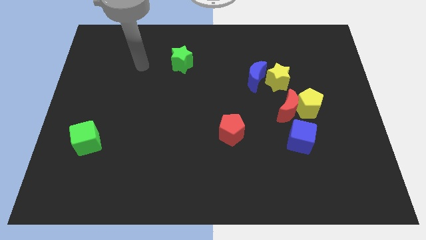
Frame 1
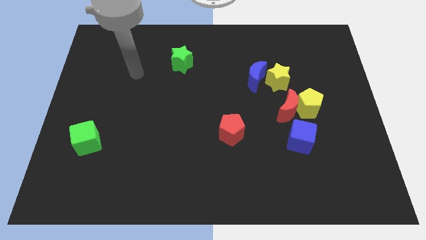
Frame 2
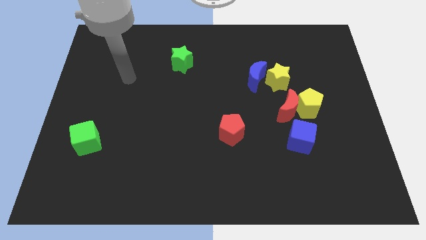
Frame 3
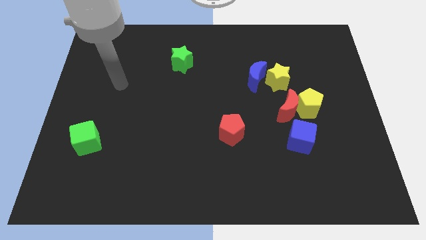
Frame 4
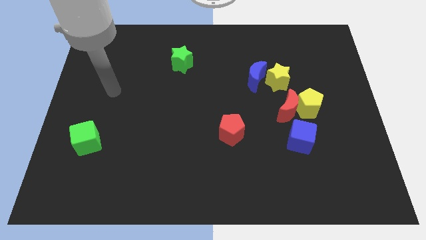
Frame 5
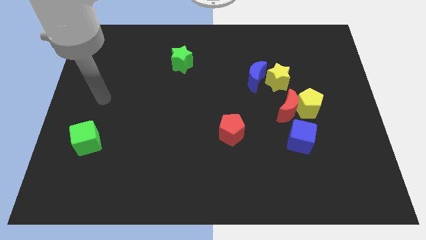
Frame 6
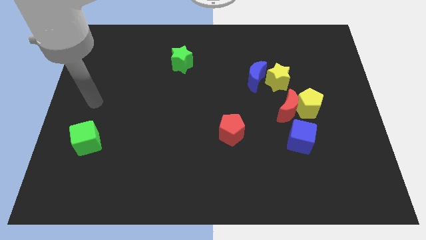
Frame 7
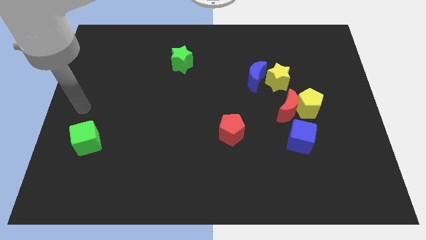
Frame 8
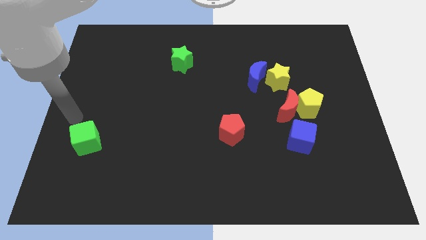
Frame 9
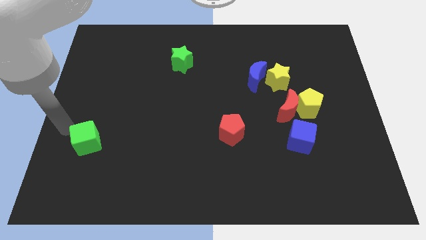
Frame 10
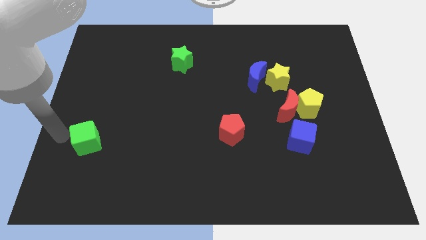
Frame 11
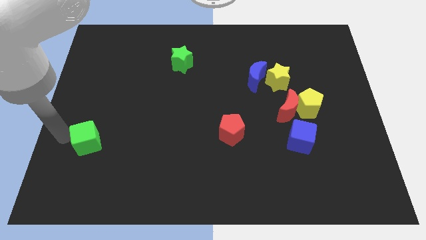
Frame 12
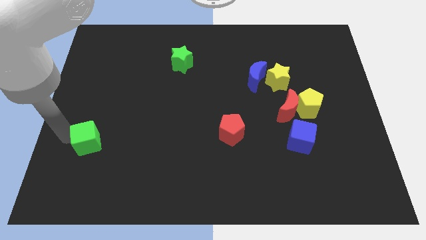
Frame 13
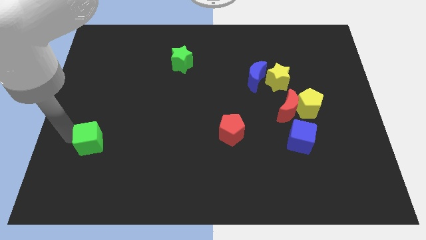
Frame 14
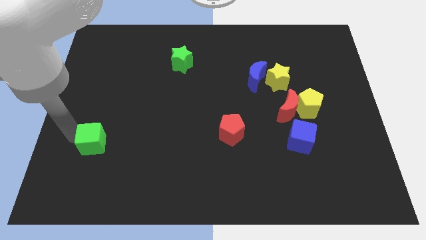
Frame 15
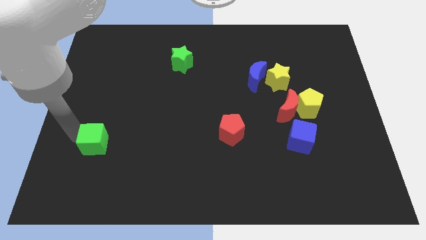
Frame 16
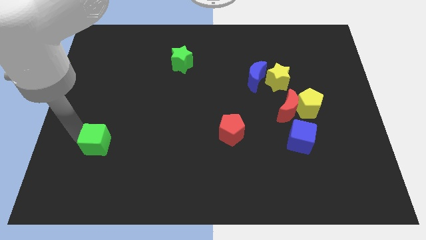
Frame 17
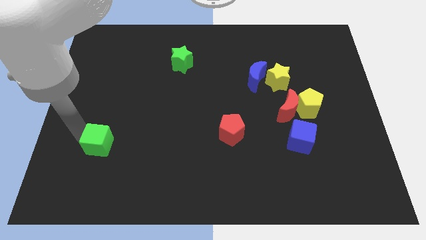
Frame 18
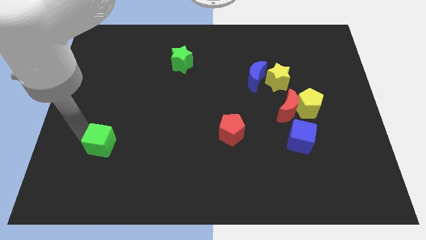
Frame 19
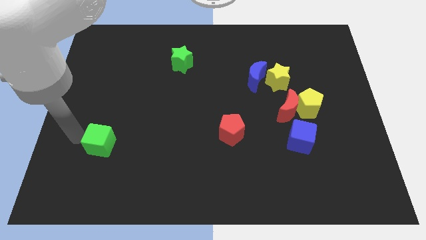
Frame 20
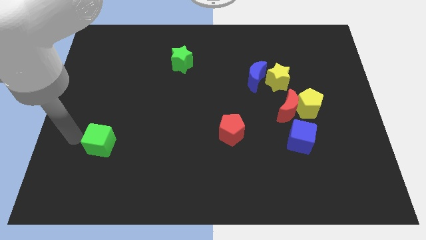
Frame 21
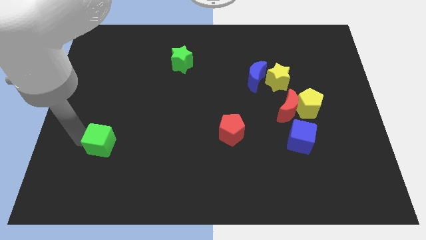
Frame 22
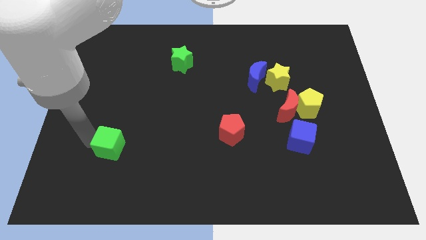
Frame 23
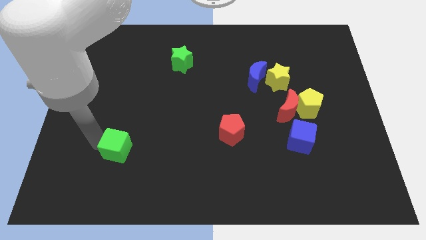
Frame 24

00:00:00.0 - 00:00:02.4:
slide the green cube to the right a little

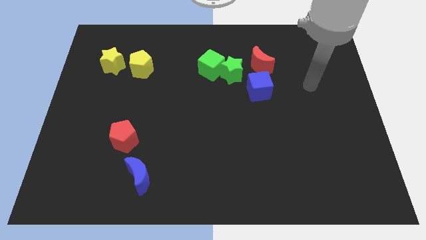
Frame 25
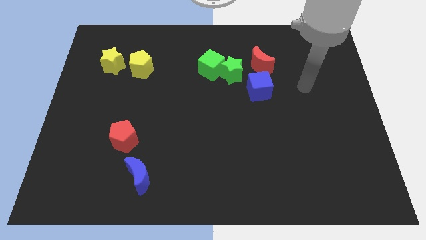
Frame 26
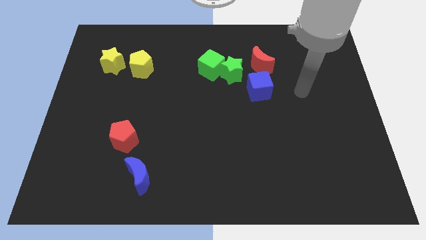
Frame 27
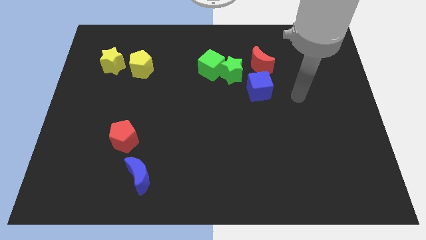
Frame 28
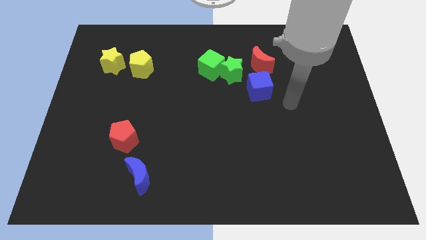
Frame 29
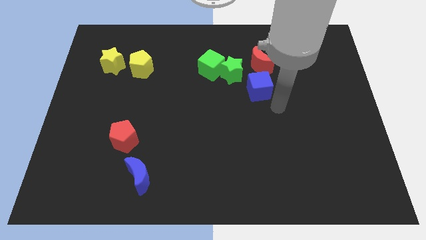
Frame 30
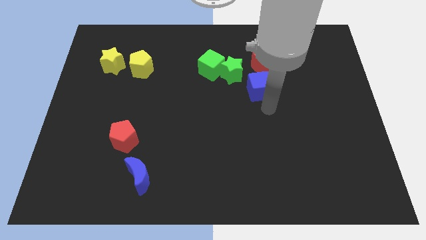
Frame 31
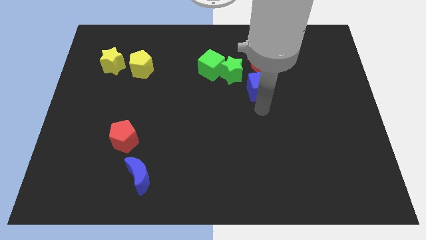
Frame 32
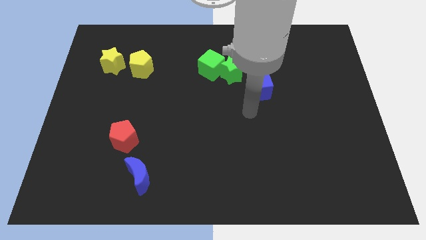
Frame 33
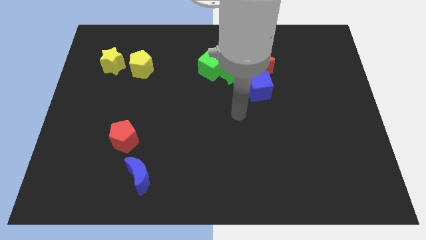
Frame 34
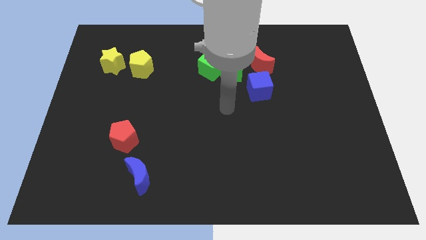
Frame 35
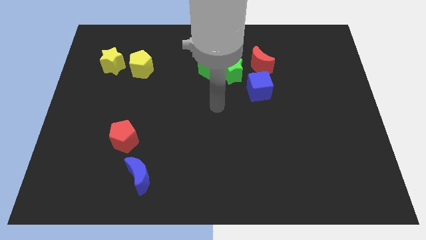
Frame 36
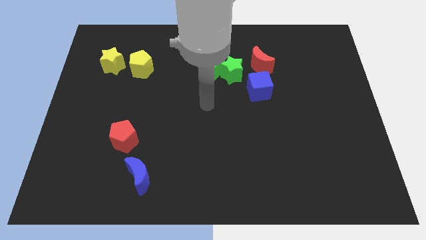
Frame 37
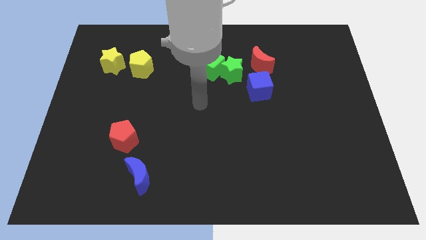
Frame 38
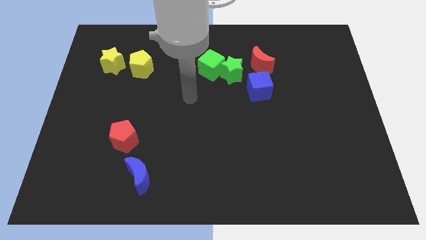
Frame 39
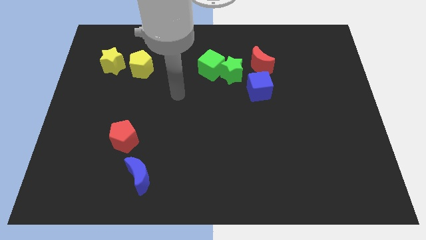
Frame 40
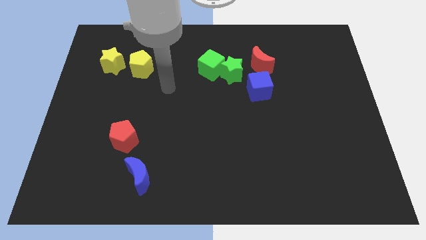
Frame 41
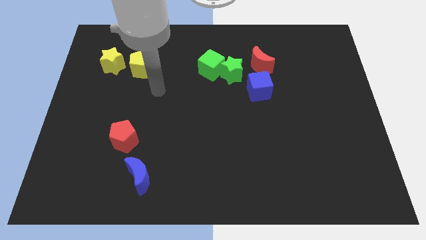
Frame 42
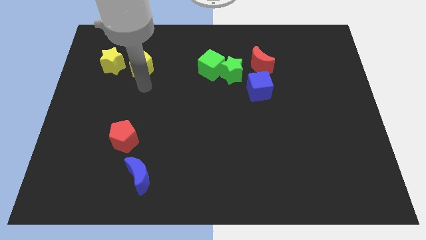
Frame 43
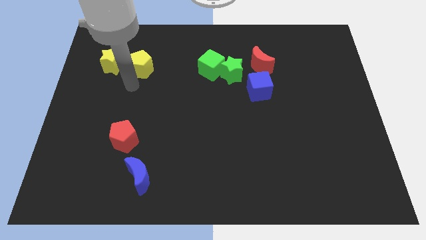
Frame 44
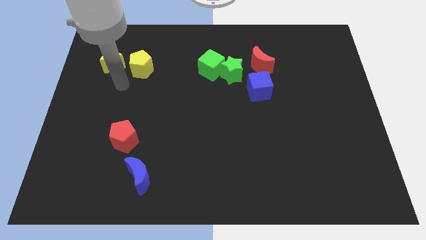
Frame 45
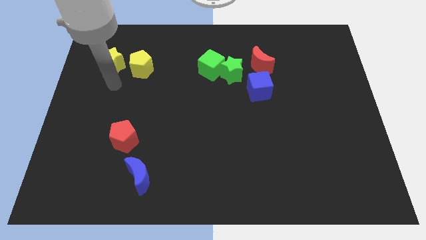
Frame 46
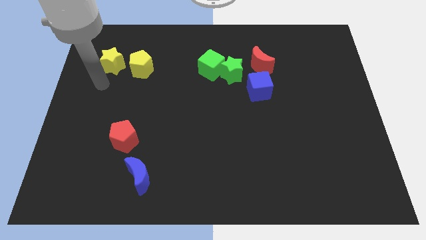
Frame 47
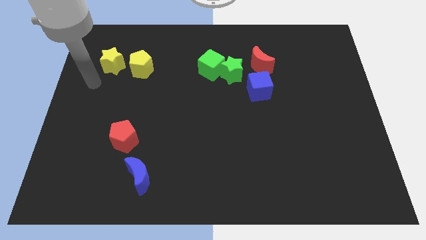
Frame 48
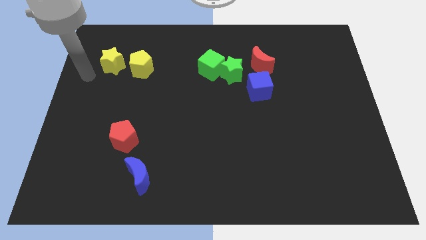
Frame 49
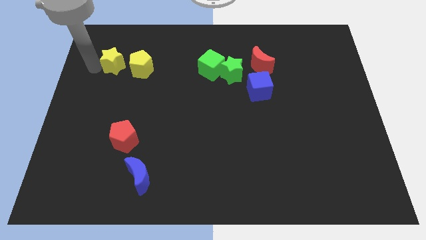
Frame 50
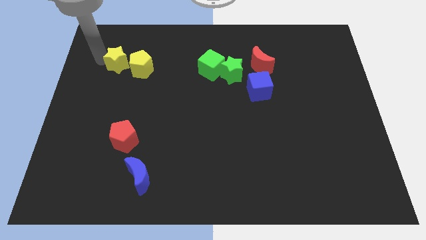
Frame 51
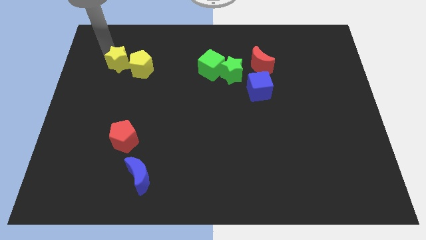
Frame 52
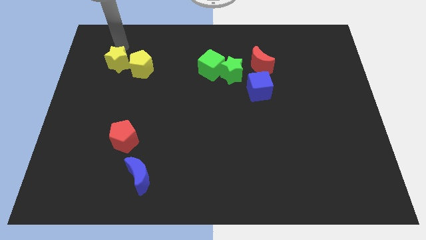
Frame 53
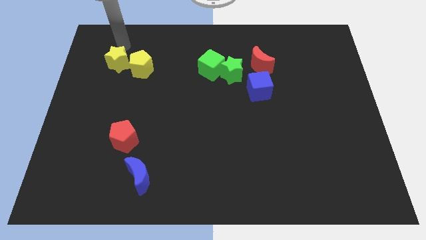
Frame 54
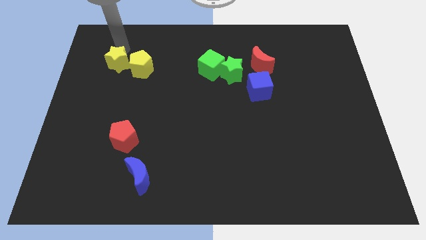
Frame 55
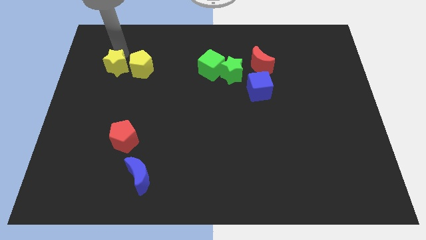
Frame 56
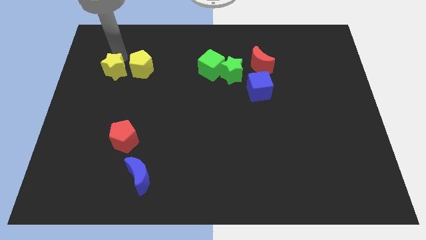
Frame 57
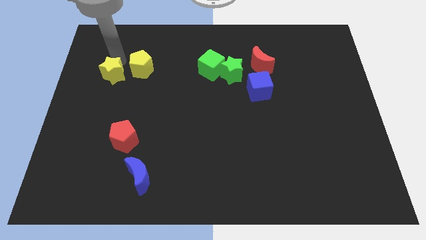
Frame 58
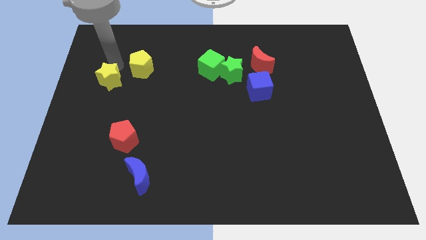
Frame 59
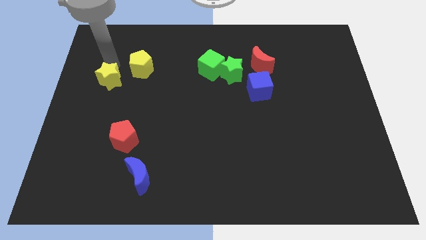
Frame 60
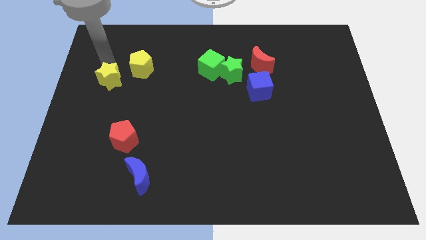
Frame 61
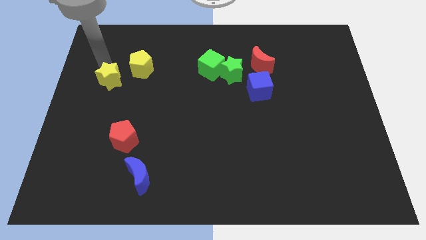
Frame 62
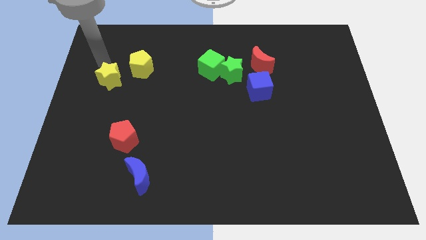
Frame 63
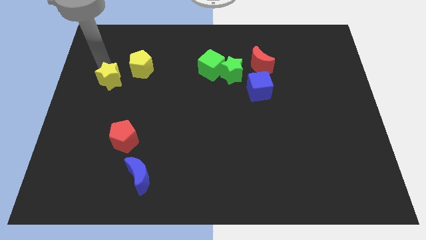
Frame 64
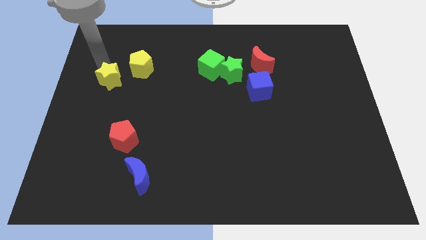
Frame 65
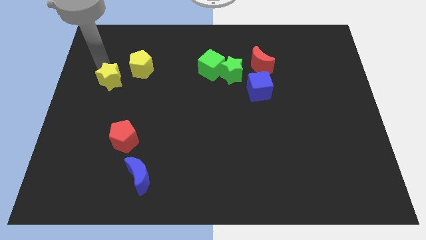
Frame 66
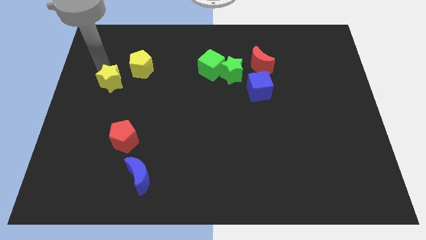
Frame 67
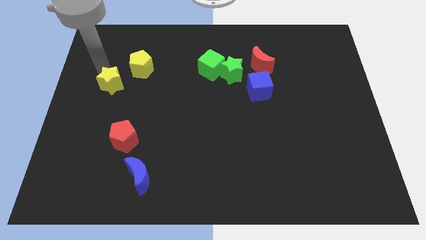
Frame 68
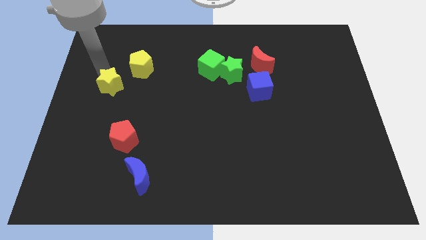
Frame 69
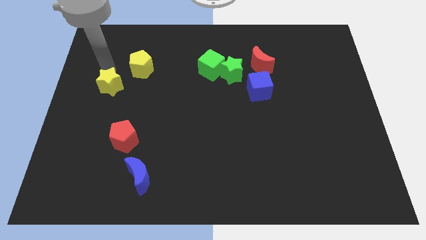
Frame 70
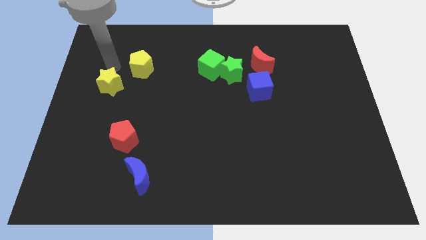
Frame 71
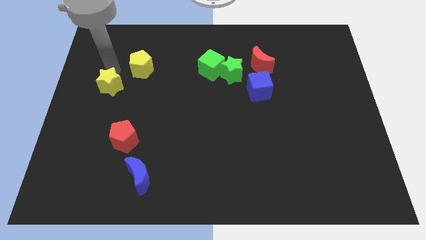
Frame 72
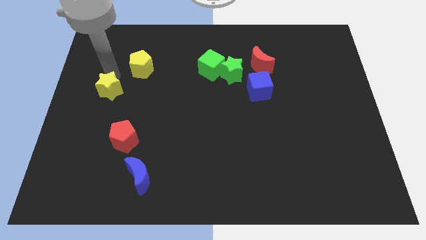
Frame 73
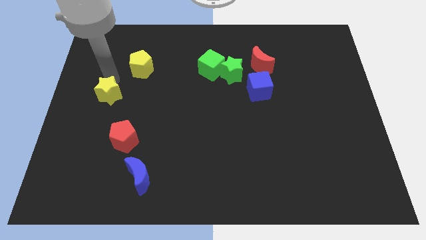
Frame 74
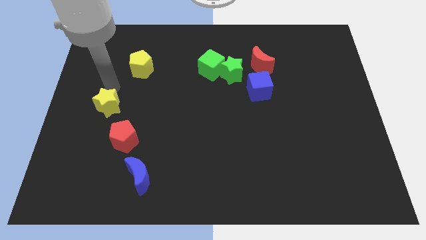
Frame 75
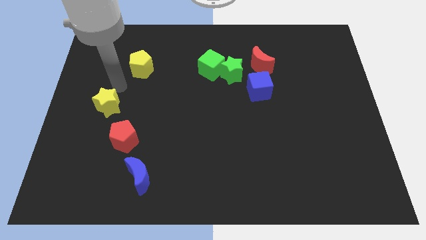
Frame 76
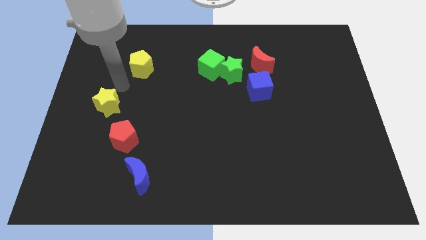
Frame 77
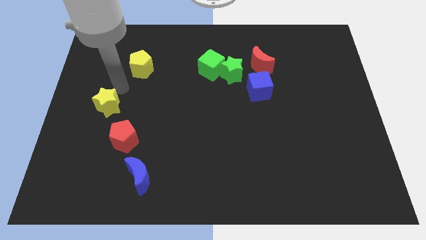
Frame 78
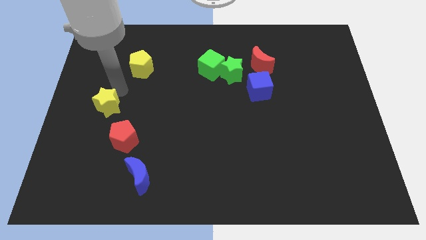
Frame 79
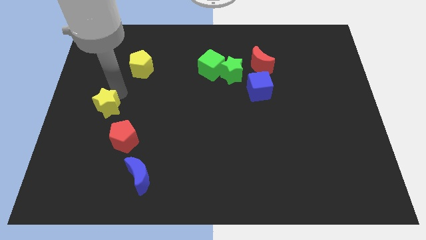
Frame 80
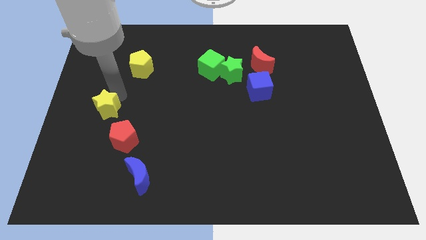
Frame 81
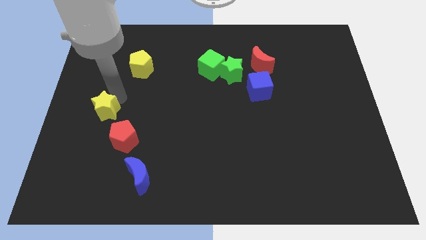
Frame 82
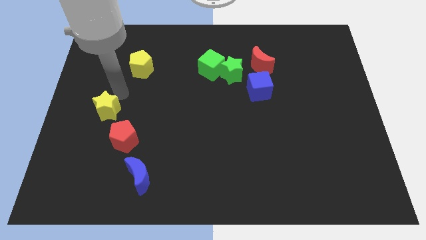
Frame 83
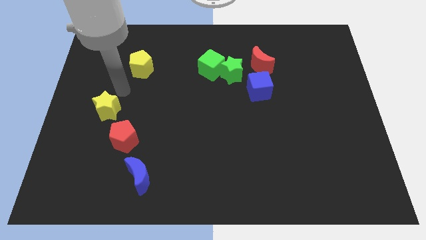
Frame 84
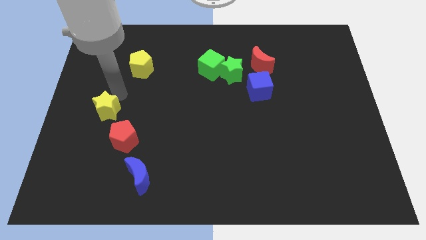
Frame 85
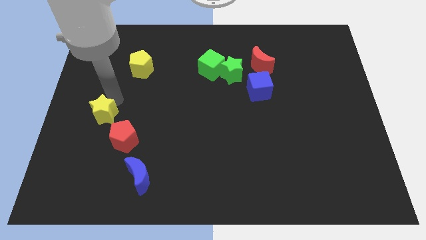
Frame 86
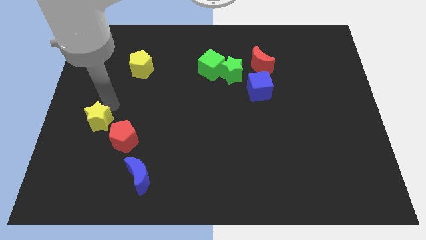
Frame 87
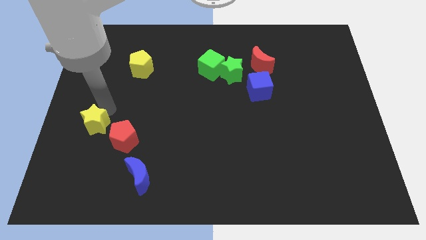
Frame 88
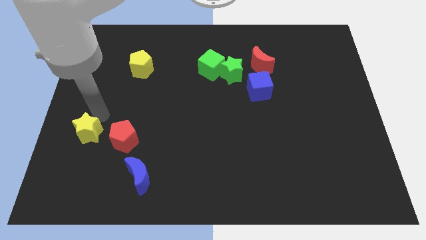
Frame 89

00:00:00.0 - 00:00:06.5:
slide the yellow star downwards
